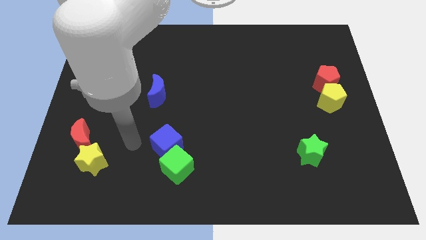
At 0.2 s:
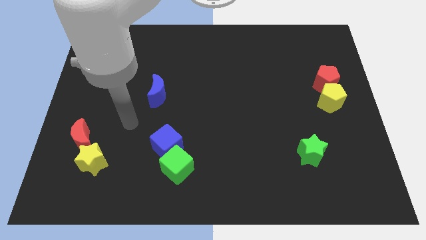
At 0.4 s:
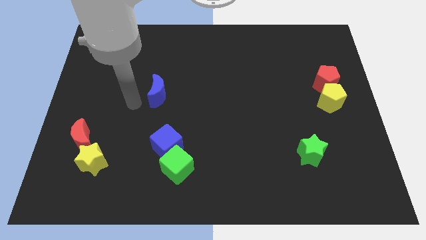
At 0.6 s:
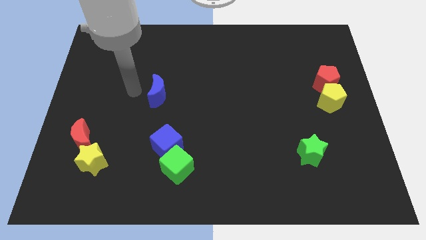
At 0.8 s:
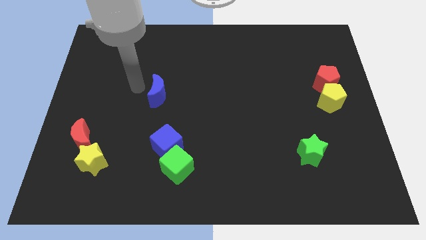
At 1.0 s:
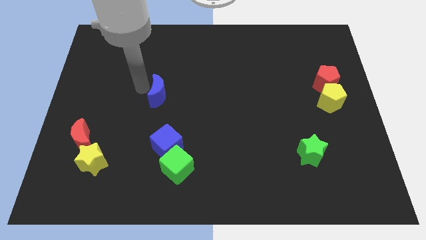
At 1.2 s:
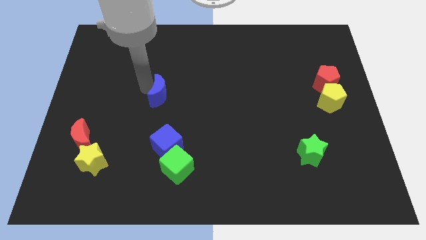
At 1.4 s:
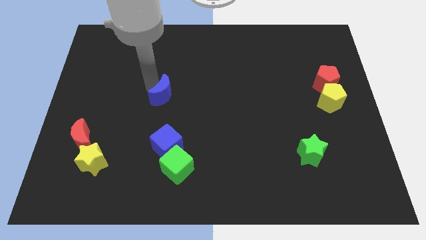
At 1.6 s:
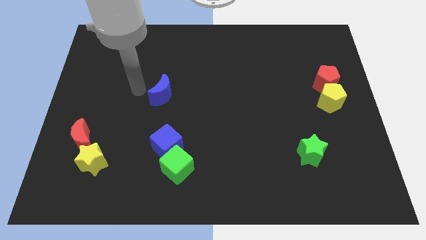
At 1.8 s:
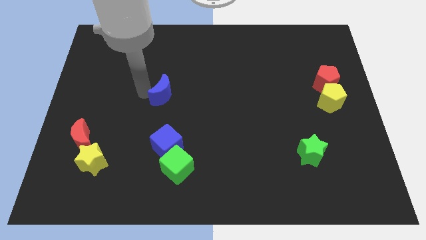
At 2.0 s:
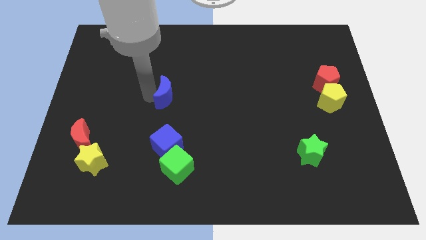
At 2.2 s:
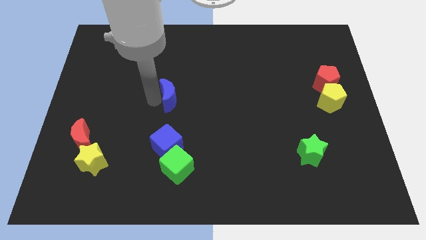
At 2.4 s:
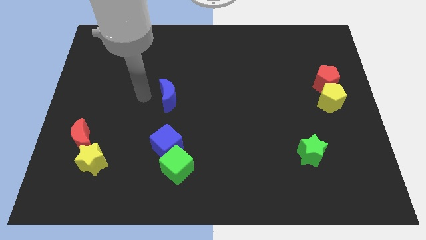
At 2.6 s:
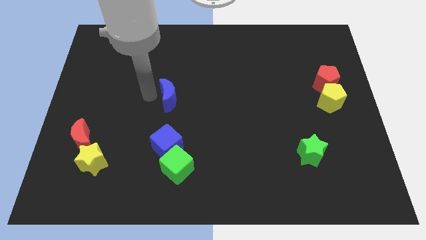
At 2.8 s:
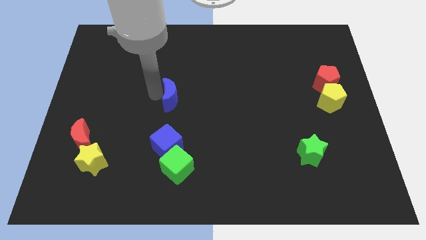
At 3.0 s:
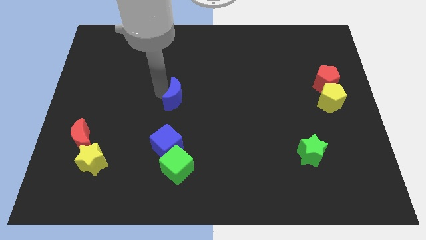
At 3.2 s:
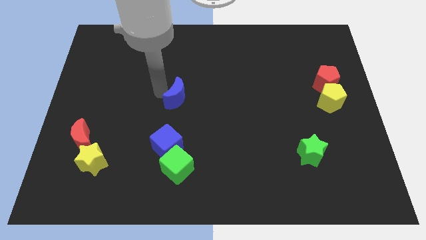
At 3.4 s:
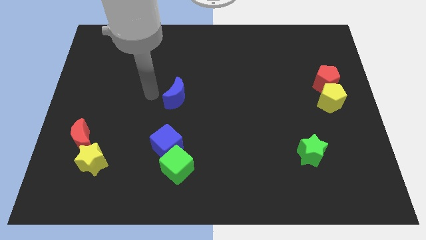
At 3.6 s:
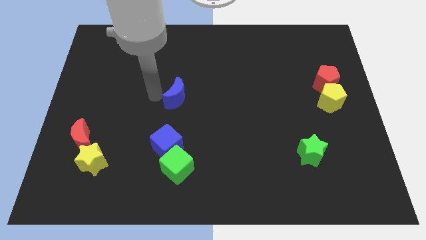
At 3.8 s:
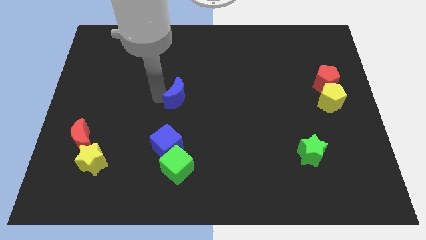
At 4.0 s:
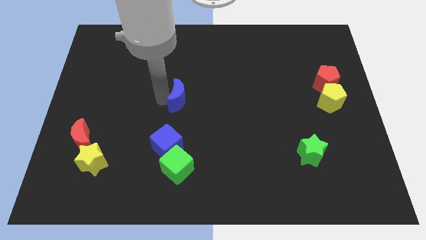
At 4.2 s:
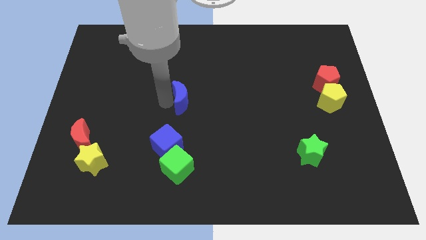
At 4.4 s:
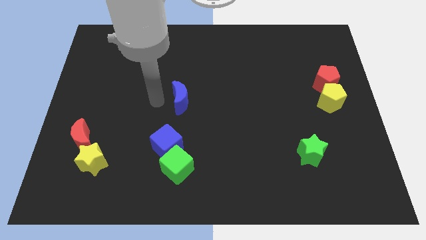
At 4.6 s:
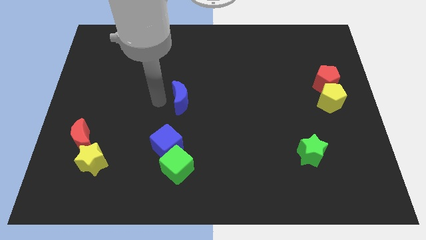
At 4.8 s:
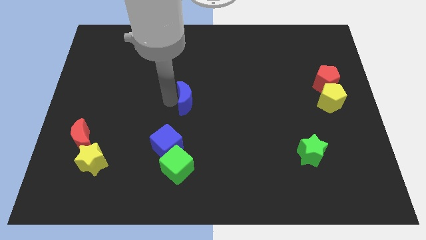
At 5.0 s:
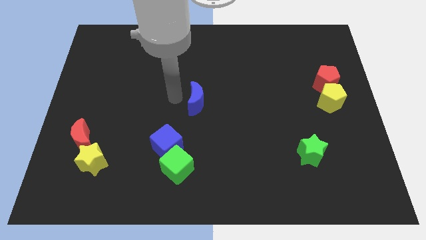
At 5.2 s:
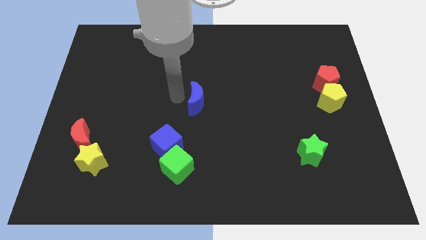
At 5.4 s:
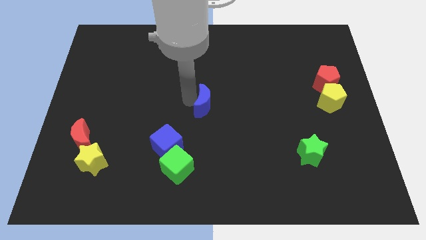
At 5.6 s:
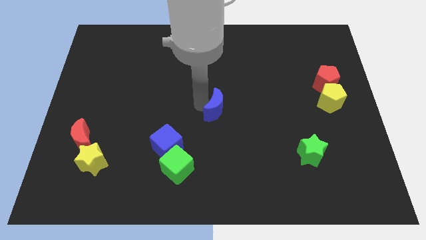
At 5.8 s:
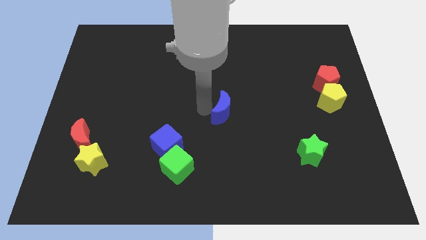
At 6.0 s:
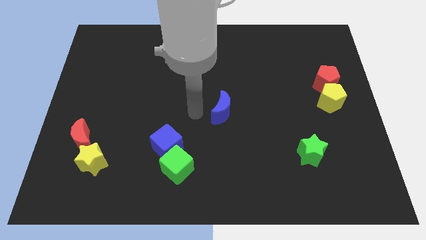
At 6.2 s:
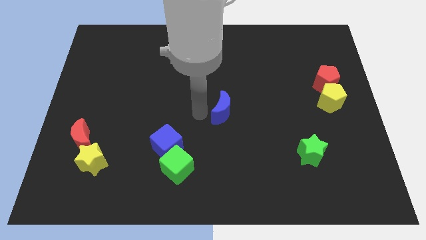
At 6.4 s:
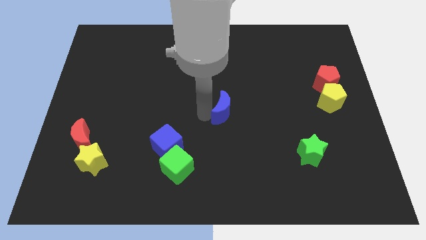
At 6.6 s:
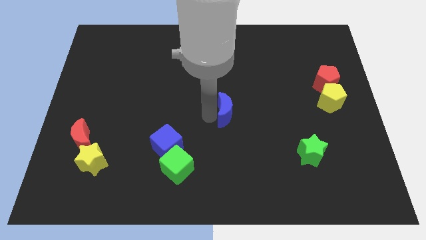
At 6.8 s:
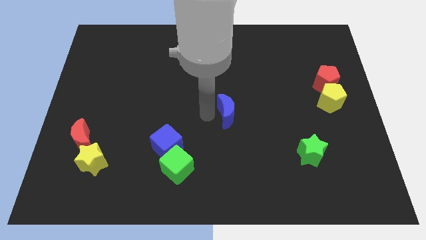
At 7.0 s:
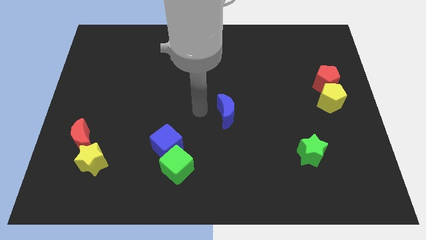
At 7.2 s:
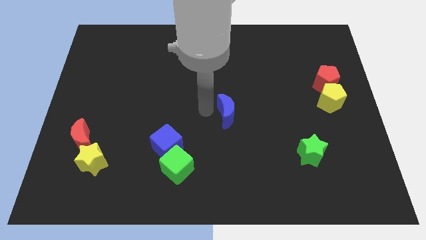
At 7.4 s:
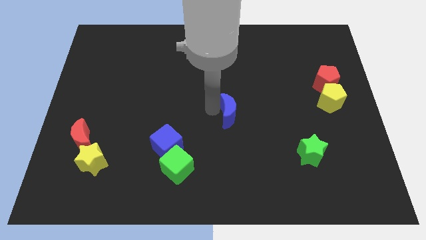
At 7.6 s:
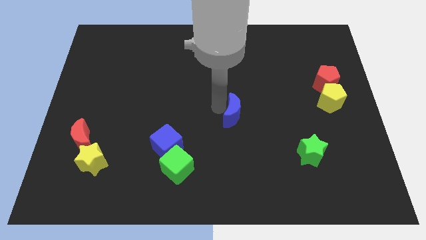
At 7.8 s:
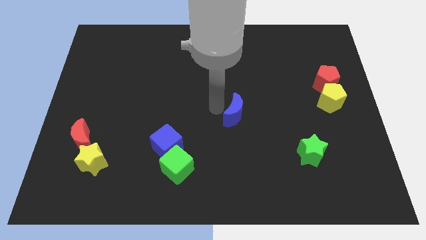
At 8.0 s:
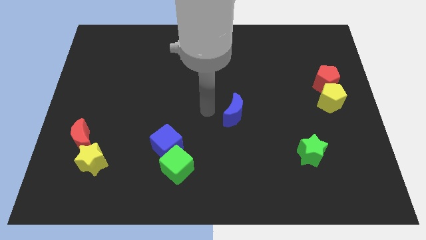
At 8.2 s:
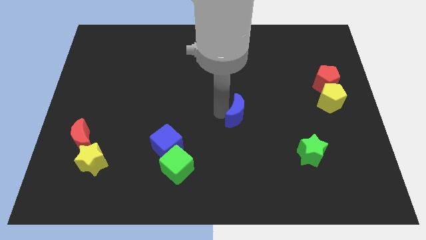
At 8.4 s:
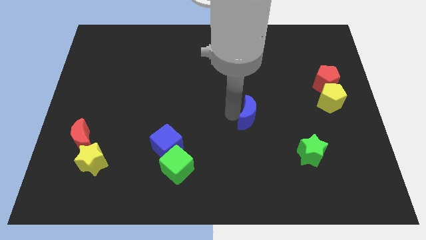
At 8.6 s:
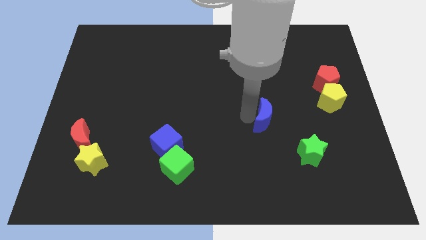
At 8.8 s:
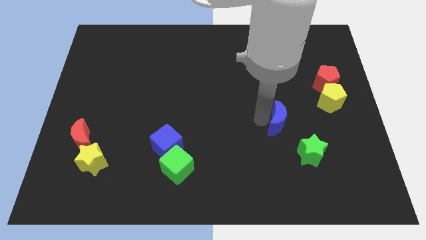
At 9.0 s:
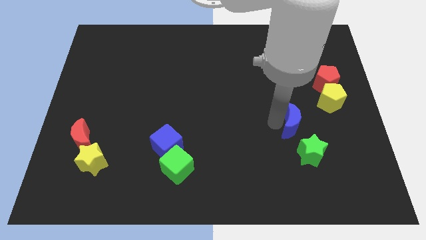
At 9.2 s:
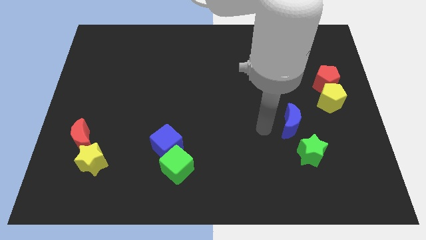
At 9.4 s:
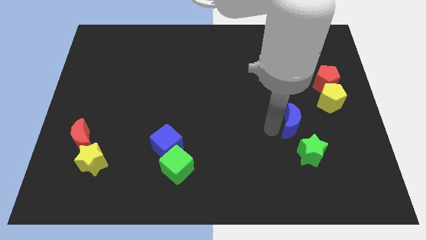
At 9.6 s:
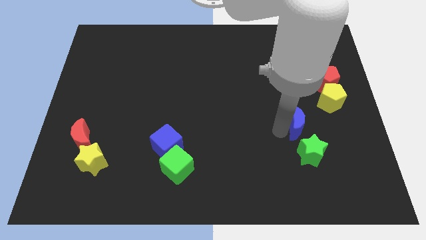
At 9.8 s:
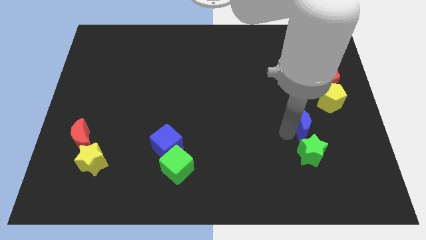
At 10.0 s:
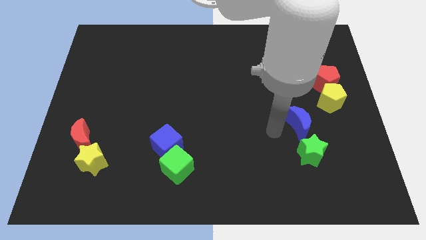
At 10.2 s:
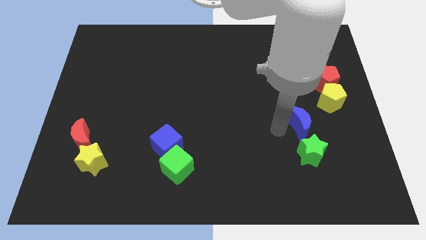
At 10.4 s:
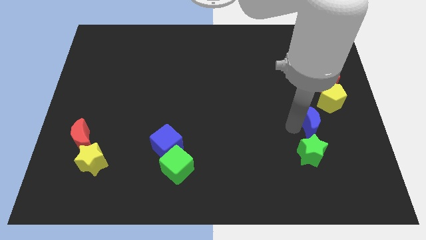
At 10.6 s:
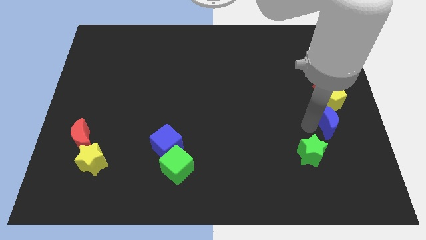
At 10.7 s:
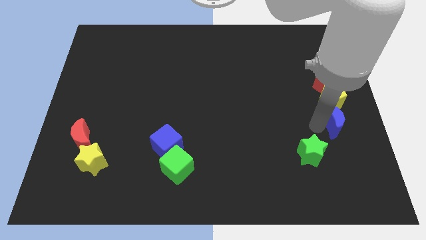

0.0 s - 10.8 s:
put the blue moon to the right side

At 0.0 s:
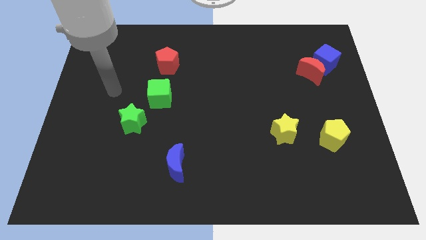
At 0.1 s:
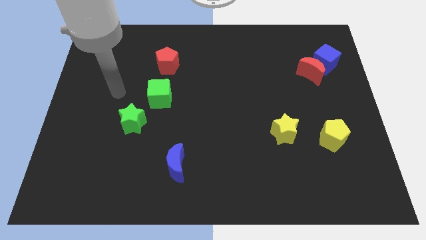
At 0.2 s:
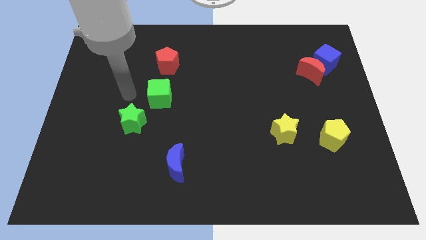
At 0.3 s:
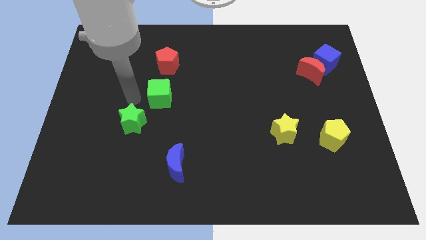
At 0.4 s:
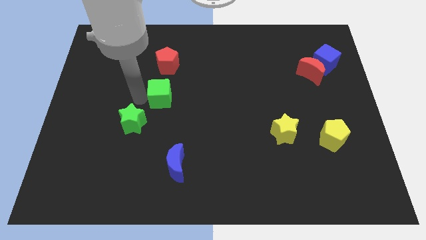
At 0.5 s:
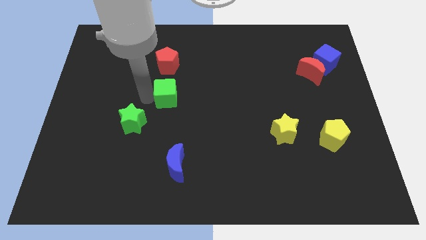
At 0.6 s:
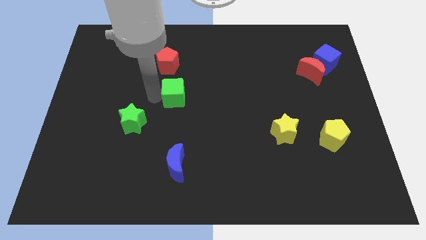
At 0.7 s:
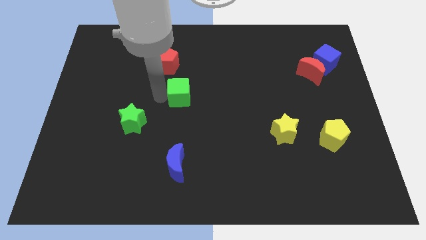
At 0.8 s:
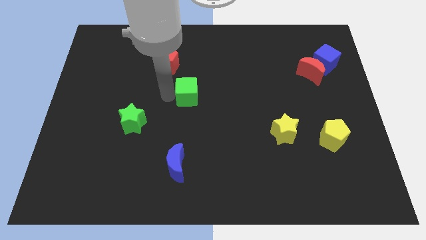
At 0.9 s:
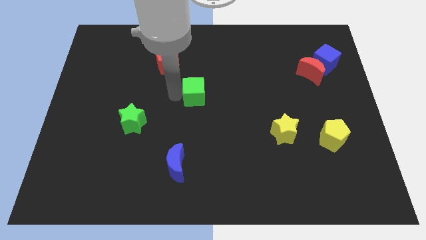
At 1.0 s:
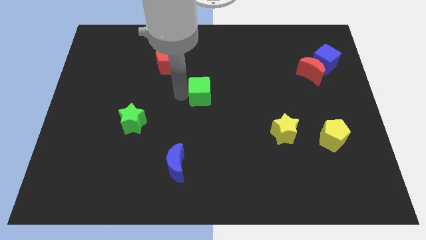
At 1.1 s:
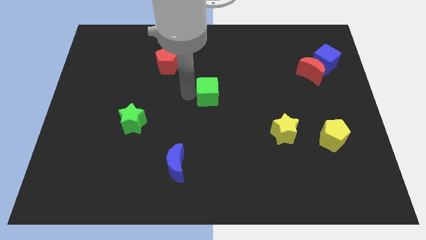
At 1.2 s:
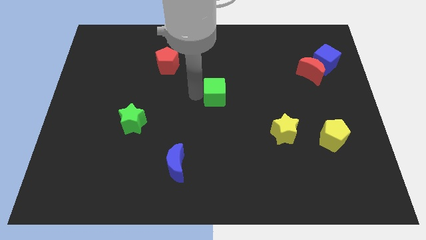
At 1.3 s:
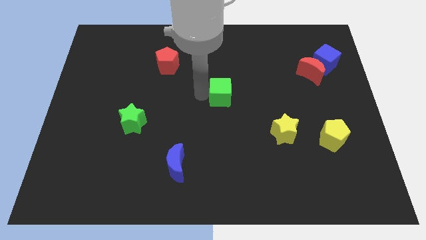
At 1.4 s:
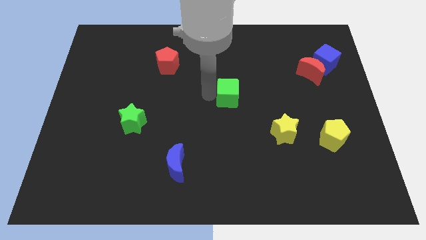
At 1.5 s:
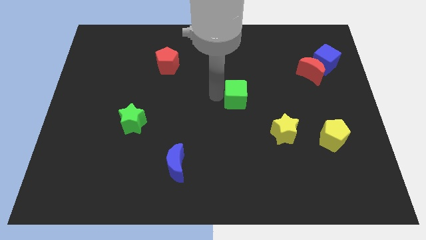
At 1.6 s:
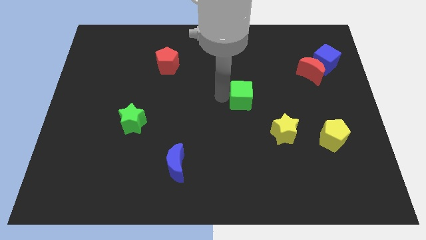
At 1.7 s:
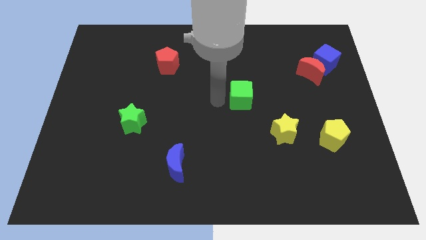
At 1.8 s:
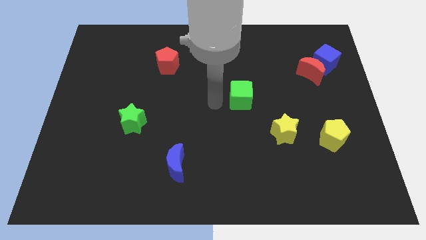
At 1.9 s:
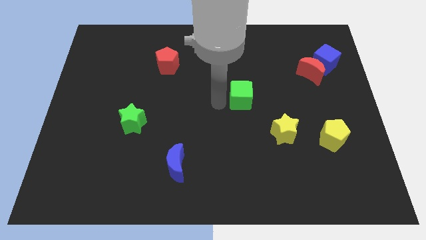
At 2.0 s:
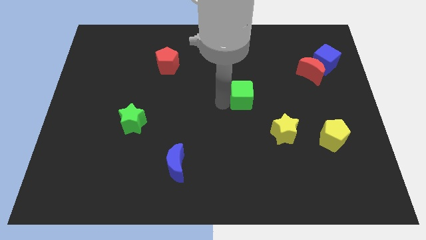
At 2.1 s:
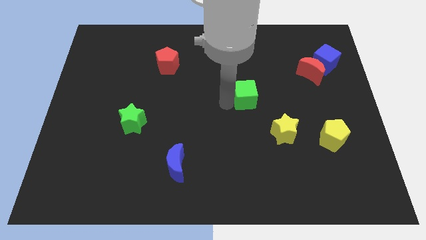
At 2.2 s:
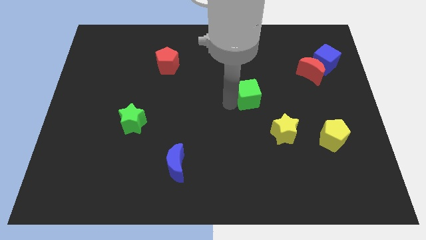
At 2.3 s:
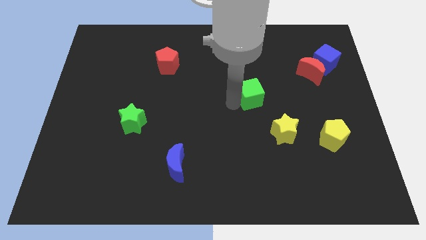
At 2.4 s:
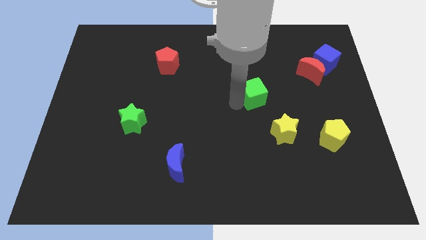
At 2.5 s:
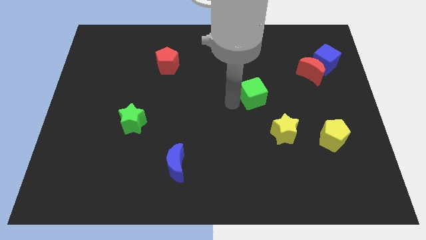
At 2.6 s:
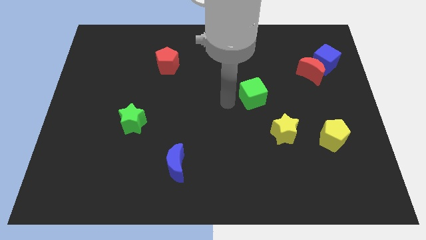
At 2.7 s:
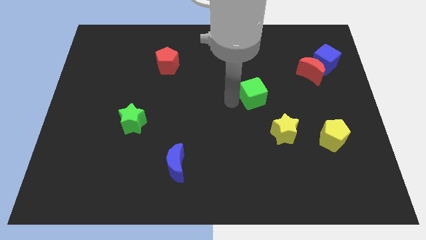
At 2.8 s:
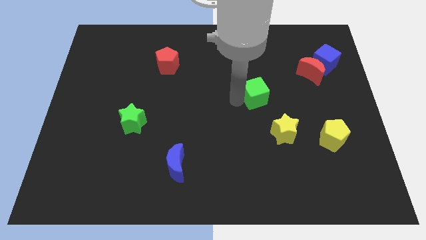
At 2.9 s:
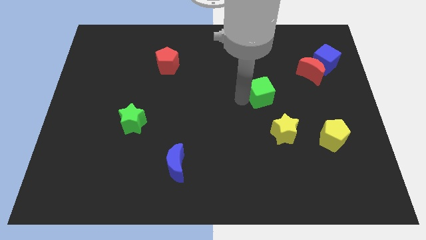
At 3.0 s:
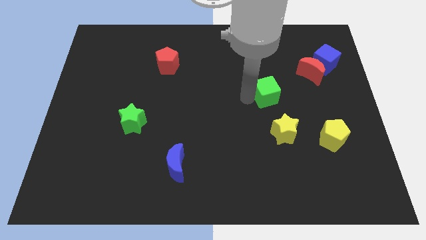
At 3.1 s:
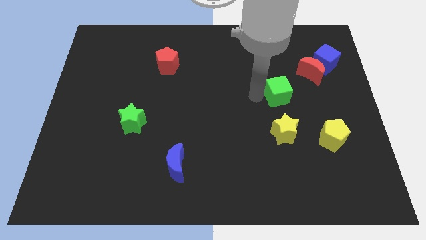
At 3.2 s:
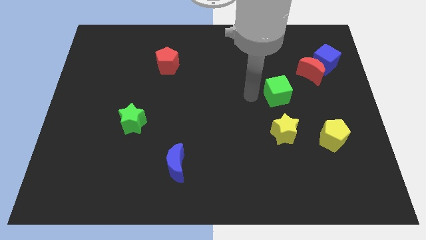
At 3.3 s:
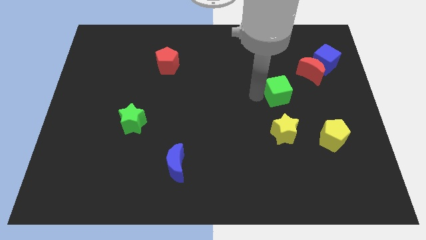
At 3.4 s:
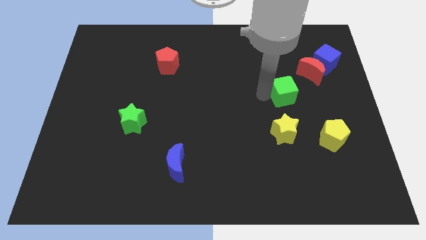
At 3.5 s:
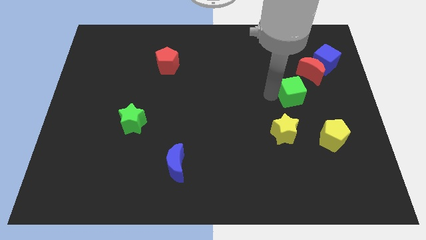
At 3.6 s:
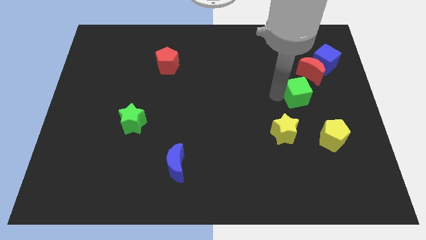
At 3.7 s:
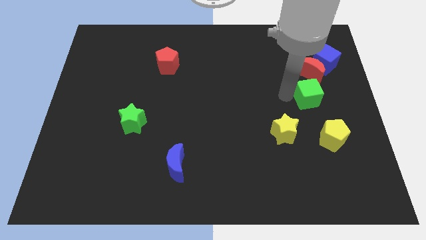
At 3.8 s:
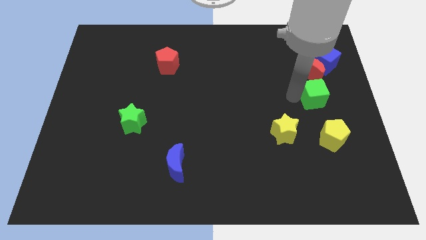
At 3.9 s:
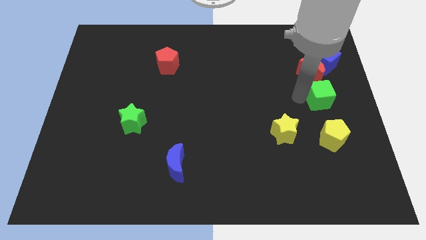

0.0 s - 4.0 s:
slide the green cube to the right side
